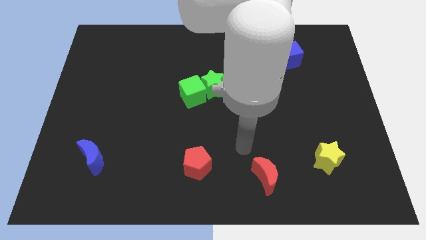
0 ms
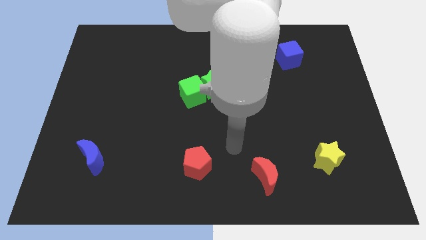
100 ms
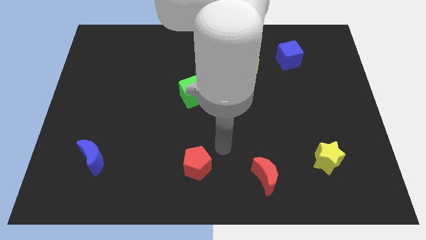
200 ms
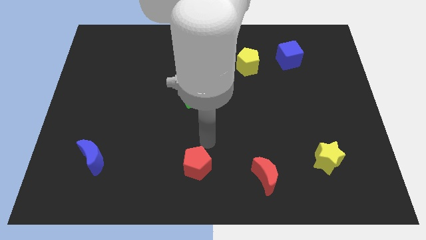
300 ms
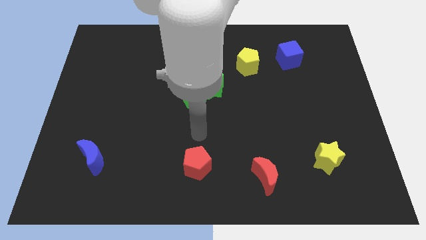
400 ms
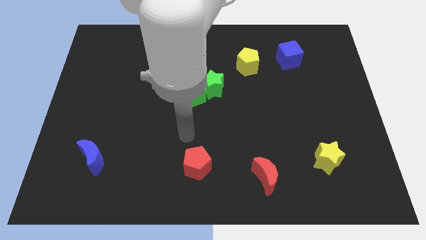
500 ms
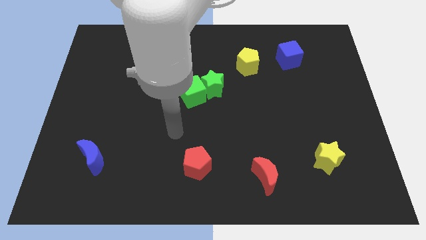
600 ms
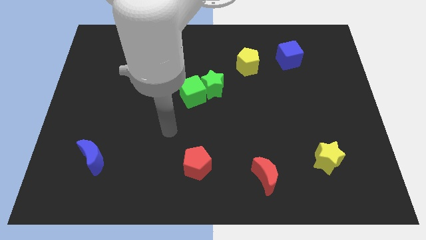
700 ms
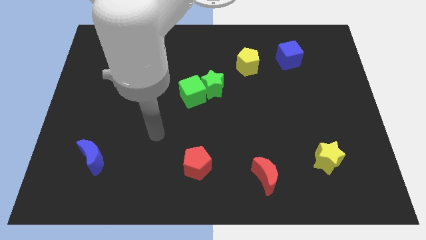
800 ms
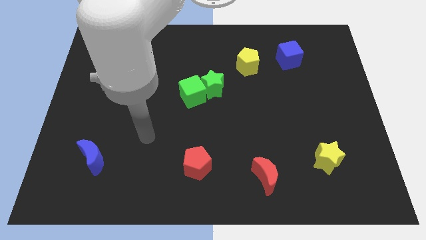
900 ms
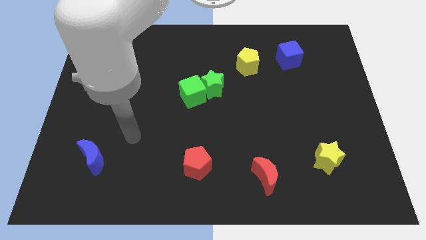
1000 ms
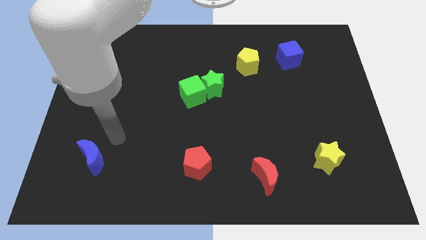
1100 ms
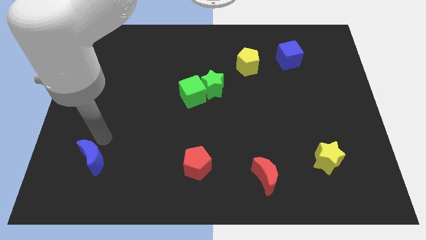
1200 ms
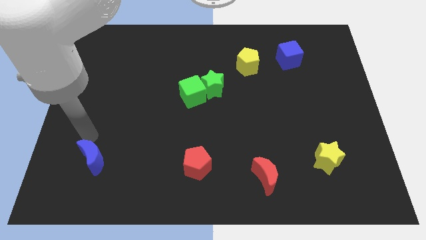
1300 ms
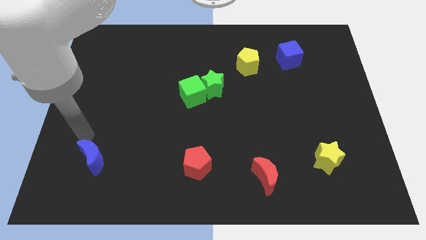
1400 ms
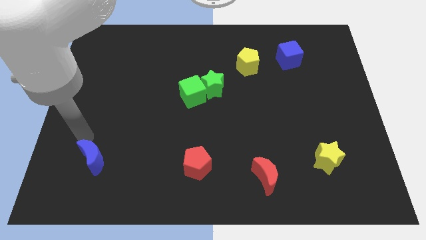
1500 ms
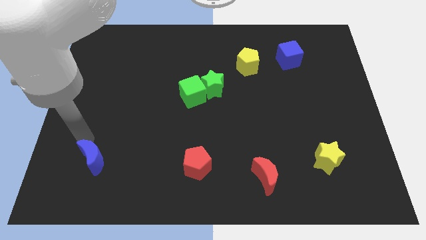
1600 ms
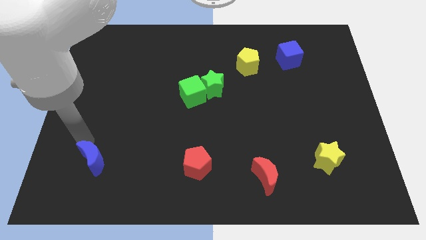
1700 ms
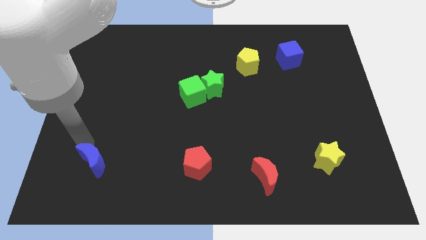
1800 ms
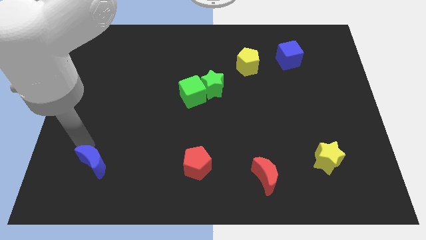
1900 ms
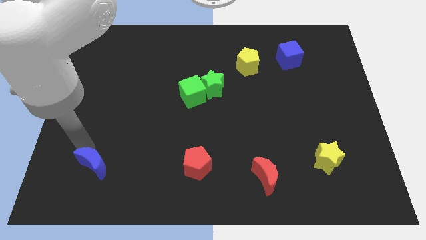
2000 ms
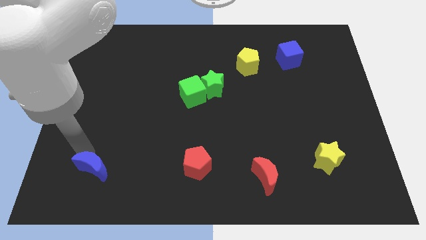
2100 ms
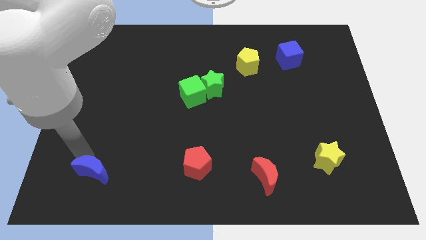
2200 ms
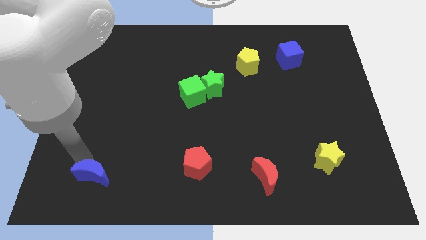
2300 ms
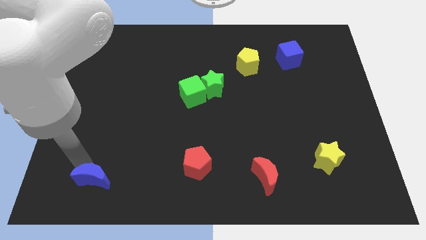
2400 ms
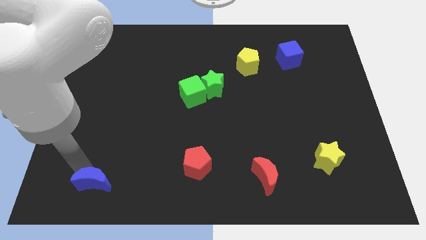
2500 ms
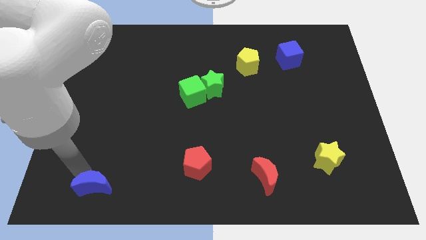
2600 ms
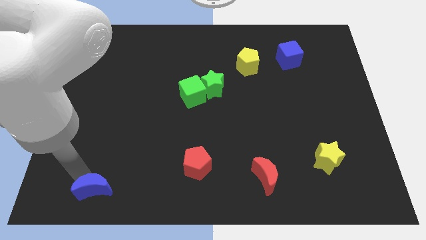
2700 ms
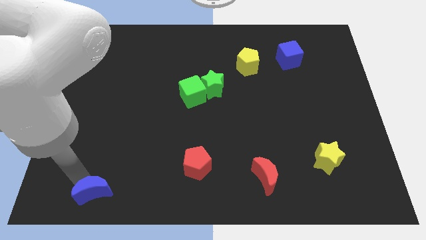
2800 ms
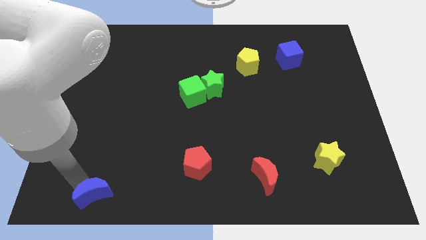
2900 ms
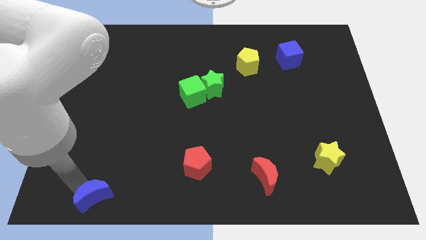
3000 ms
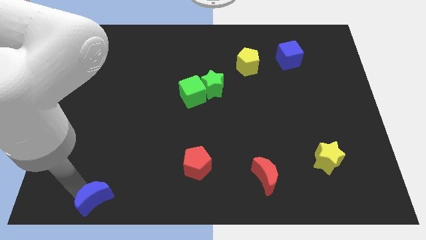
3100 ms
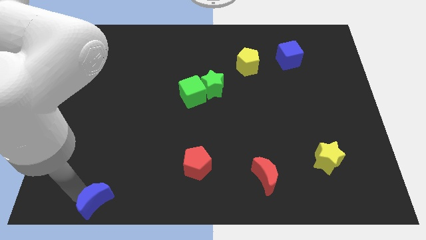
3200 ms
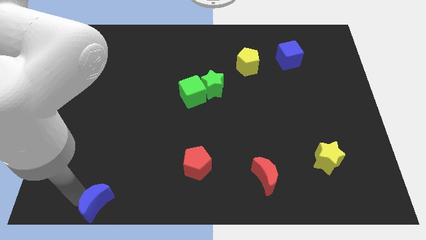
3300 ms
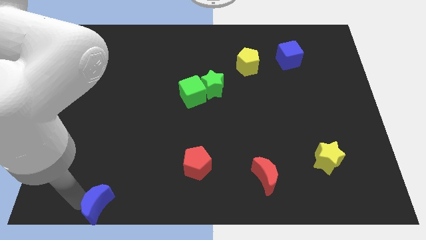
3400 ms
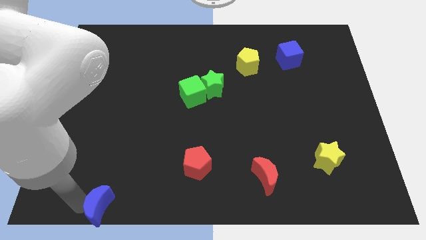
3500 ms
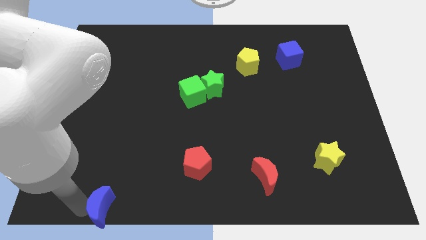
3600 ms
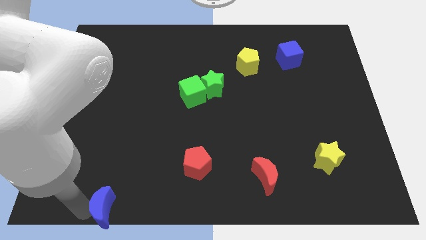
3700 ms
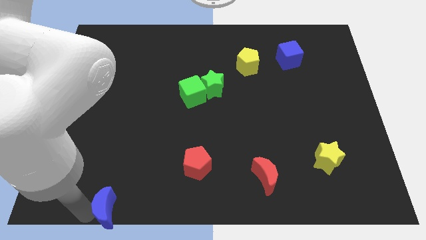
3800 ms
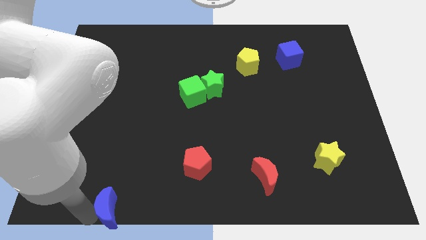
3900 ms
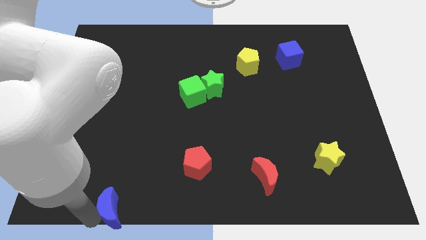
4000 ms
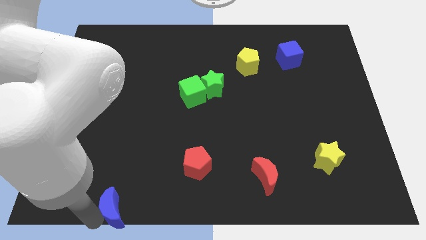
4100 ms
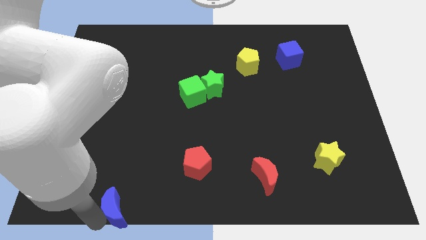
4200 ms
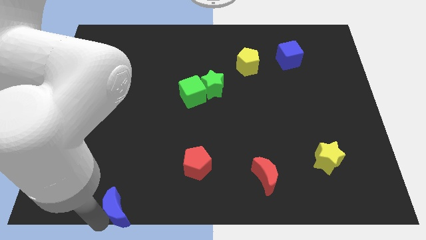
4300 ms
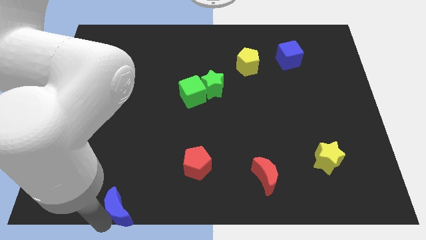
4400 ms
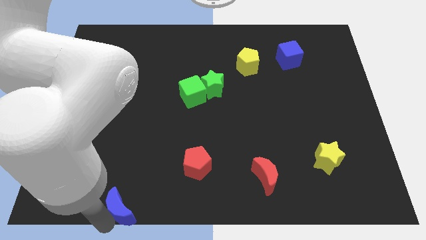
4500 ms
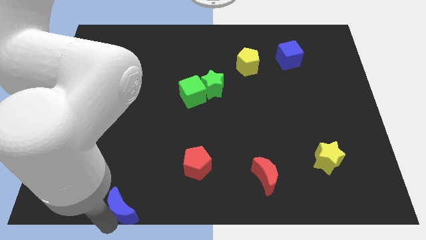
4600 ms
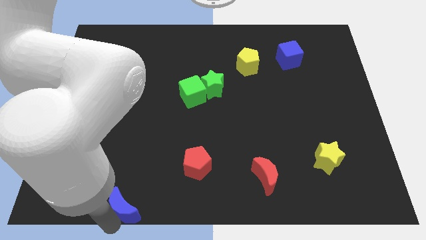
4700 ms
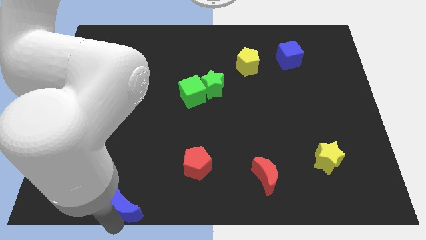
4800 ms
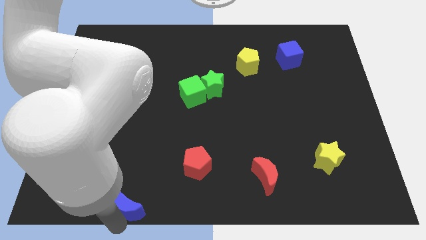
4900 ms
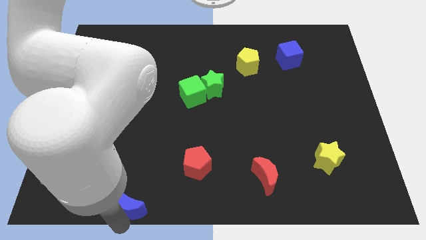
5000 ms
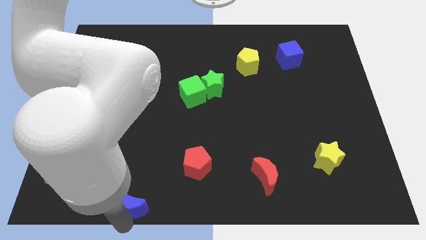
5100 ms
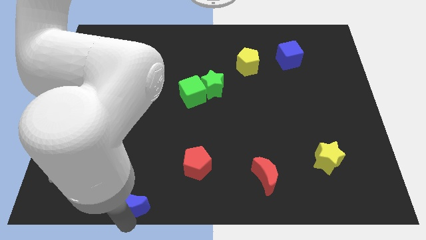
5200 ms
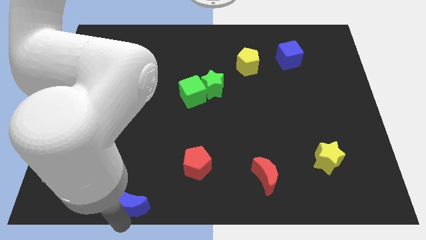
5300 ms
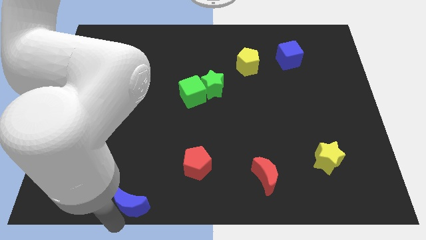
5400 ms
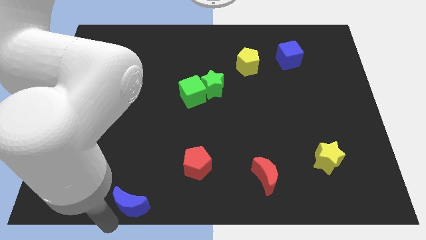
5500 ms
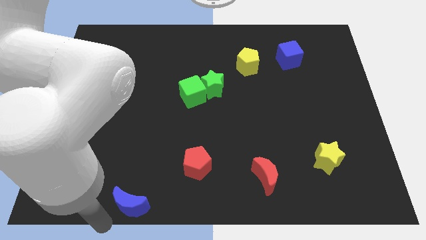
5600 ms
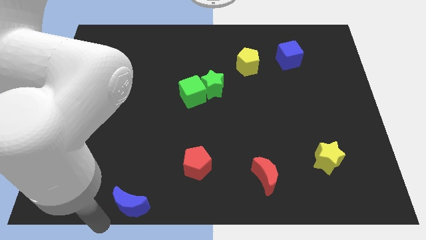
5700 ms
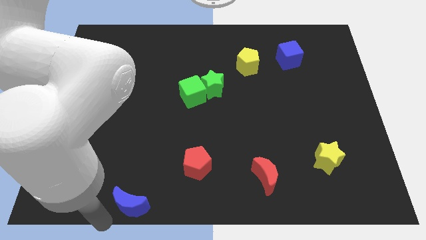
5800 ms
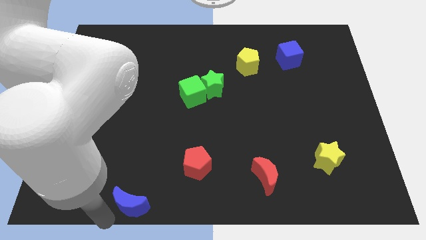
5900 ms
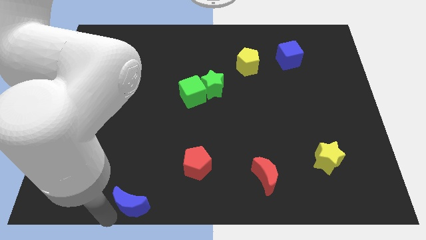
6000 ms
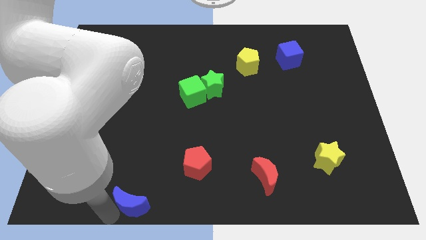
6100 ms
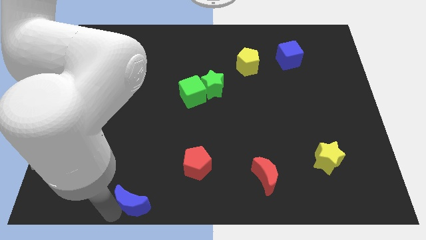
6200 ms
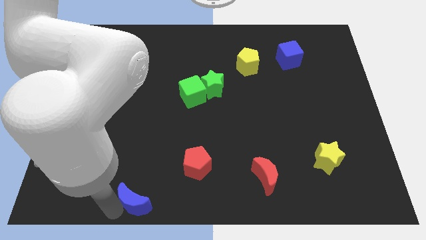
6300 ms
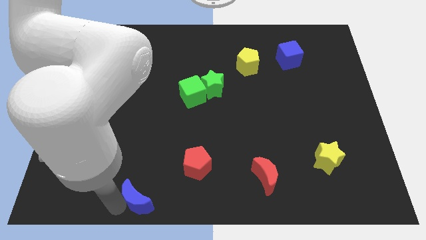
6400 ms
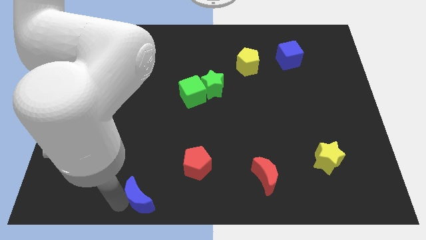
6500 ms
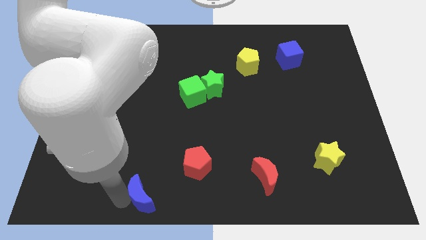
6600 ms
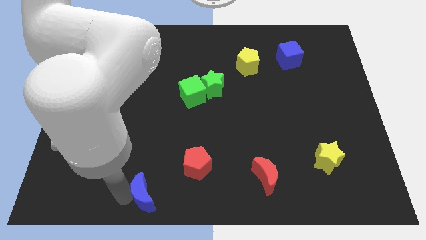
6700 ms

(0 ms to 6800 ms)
slide the blue moon to the bottom side
